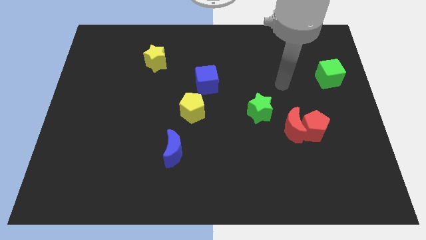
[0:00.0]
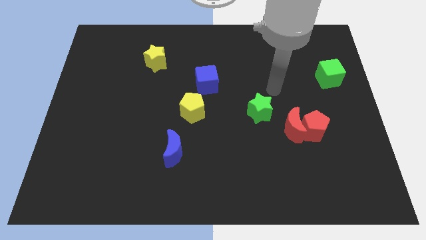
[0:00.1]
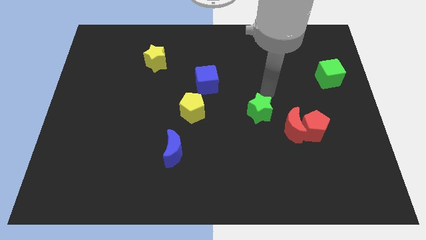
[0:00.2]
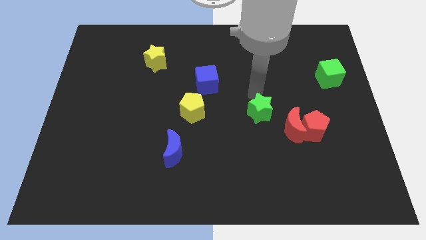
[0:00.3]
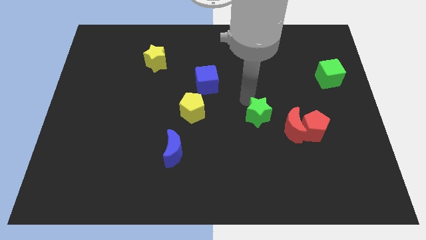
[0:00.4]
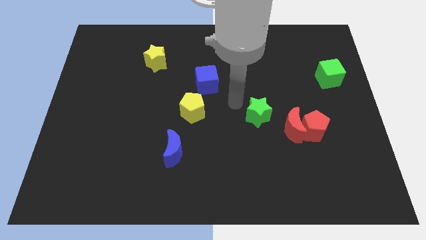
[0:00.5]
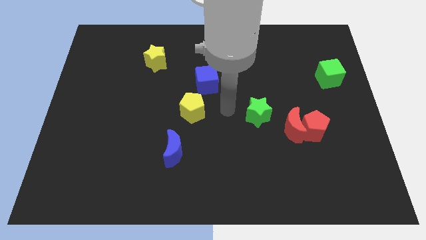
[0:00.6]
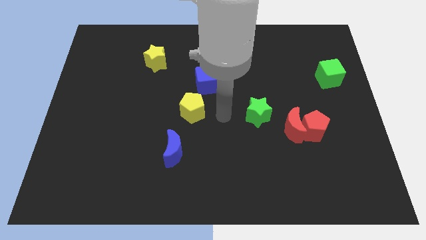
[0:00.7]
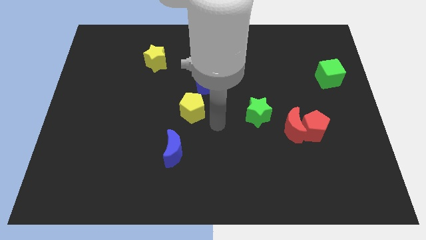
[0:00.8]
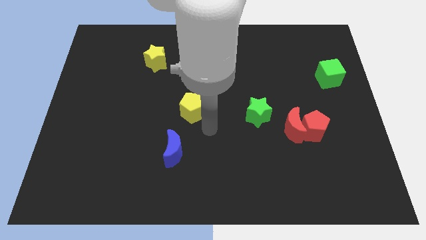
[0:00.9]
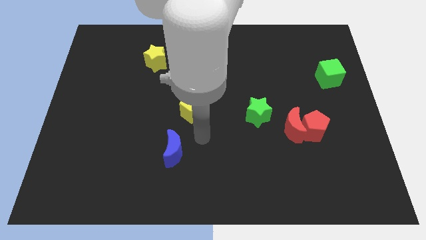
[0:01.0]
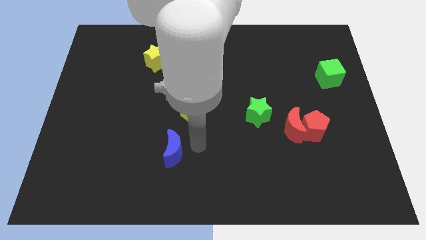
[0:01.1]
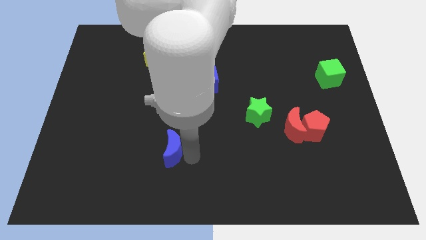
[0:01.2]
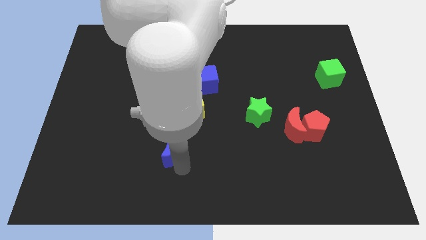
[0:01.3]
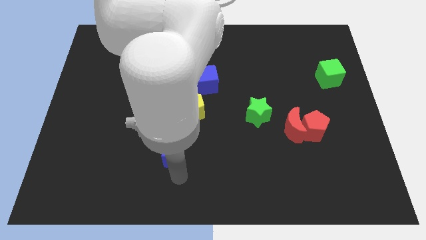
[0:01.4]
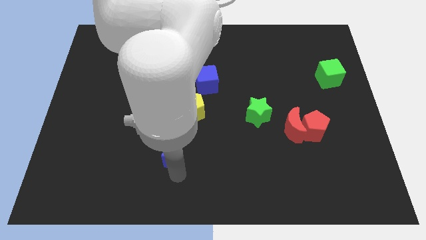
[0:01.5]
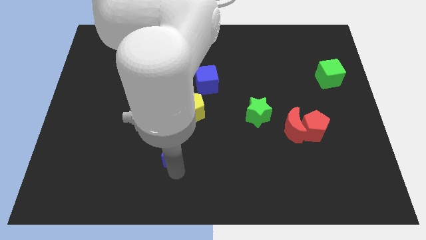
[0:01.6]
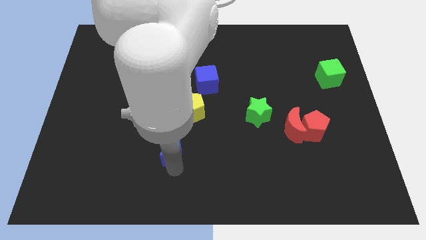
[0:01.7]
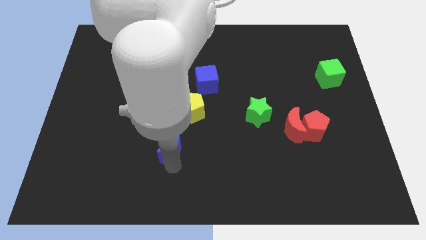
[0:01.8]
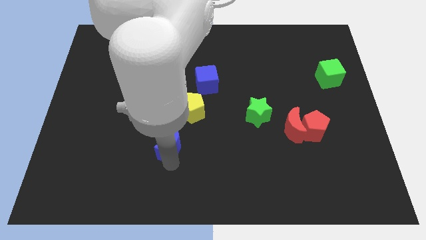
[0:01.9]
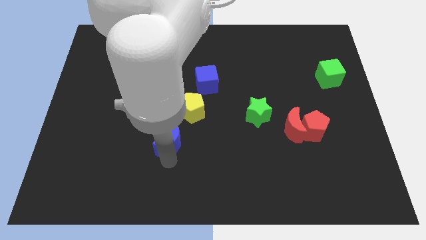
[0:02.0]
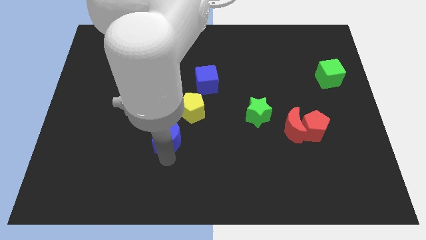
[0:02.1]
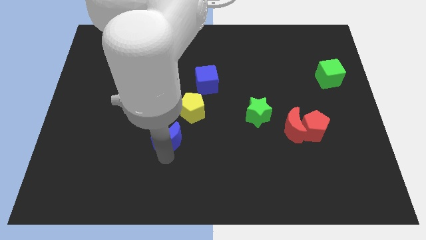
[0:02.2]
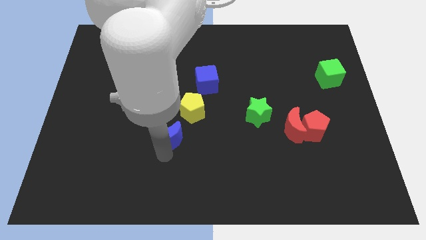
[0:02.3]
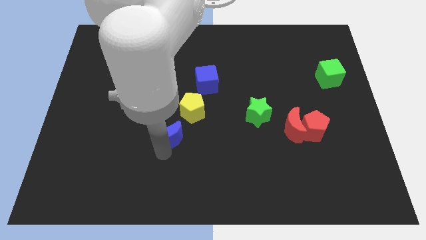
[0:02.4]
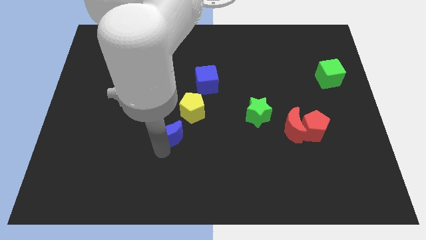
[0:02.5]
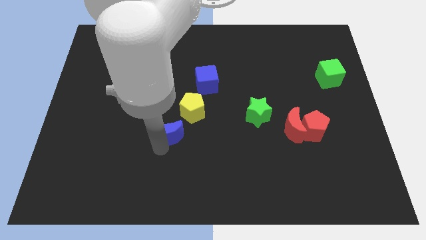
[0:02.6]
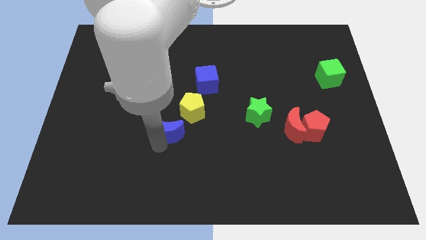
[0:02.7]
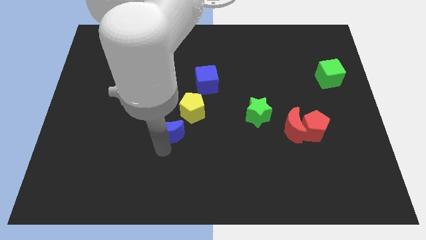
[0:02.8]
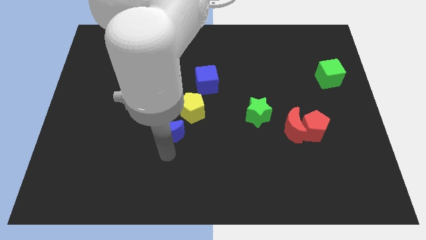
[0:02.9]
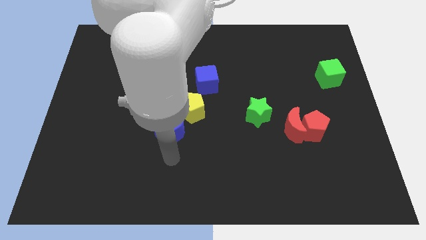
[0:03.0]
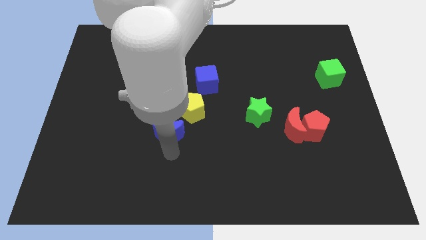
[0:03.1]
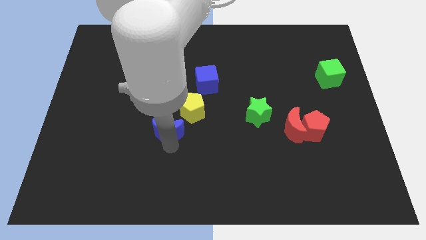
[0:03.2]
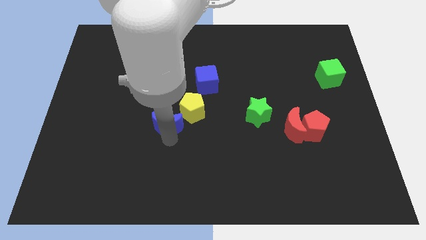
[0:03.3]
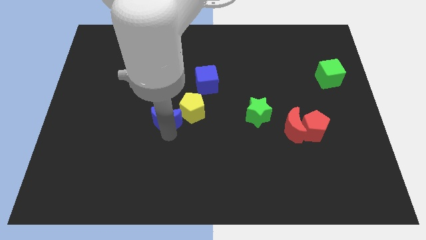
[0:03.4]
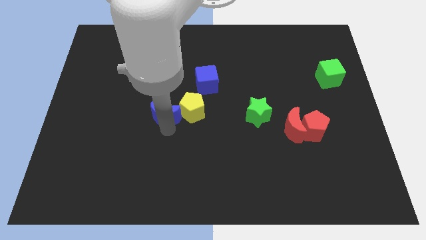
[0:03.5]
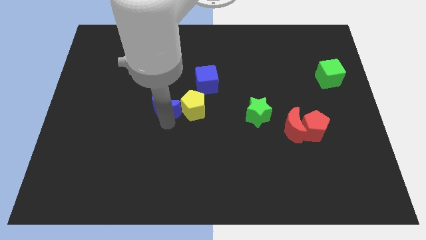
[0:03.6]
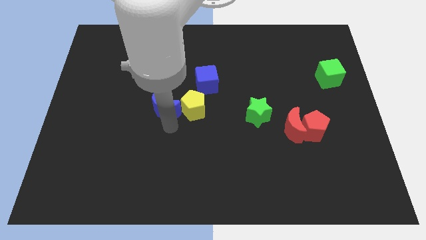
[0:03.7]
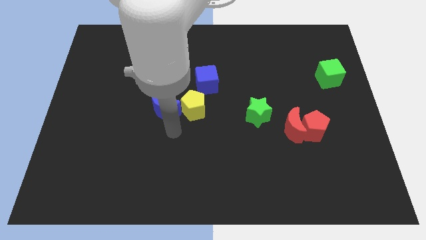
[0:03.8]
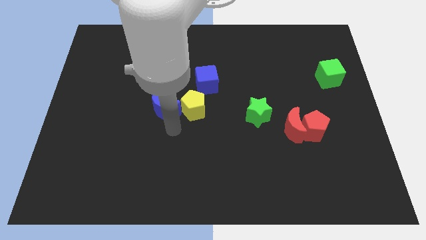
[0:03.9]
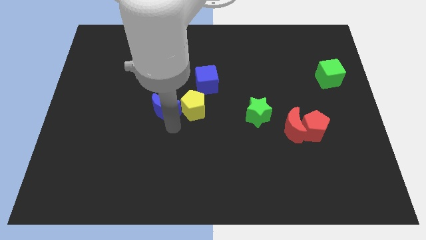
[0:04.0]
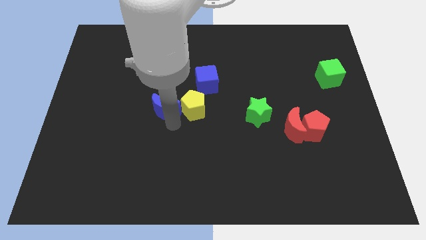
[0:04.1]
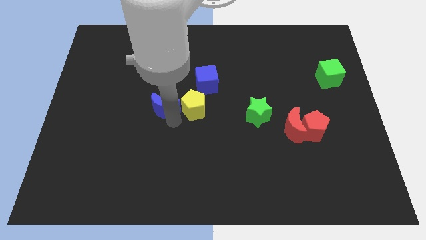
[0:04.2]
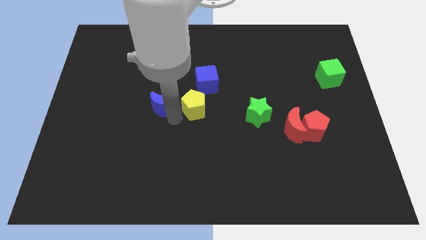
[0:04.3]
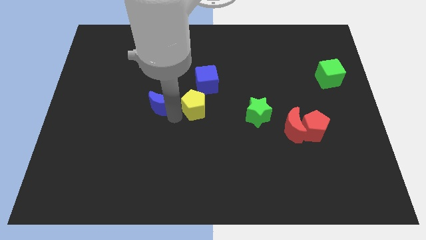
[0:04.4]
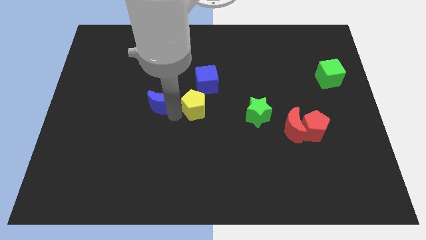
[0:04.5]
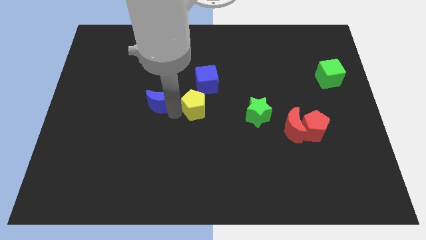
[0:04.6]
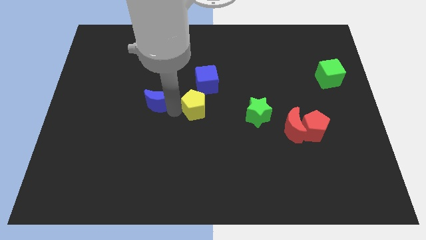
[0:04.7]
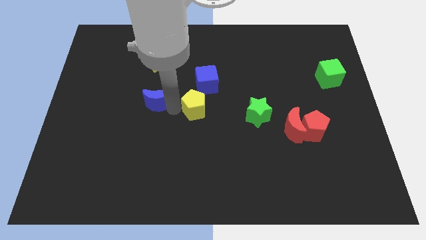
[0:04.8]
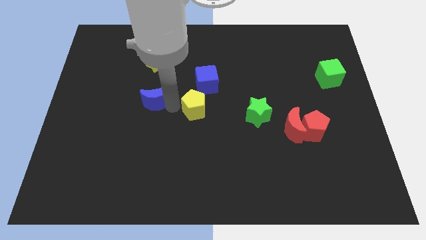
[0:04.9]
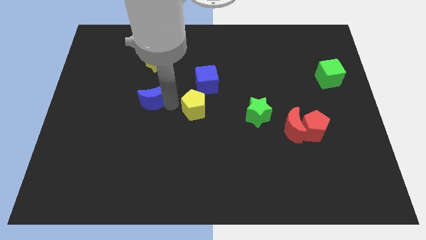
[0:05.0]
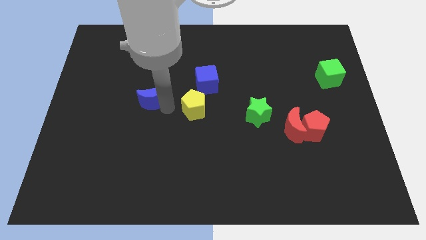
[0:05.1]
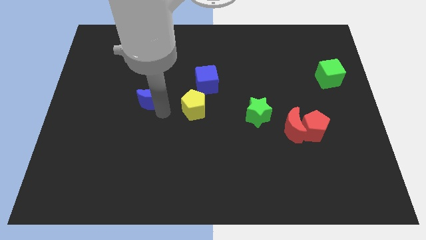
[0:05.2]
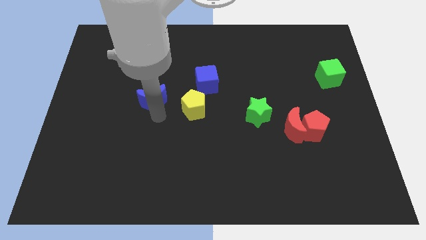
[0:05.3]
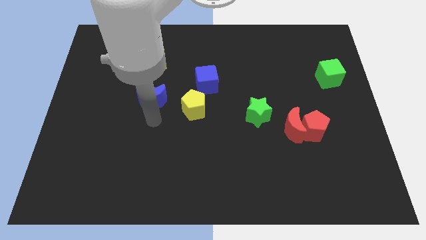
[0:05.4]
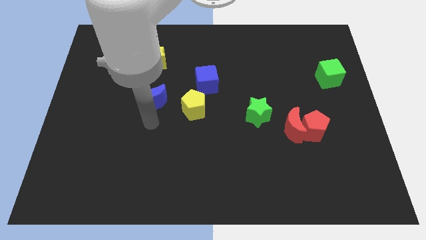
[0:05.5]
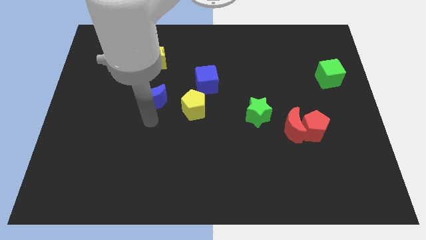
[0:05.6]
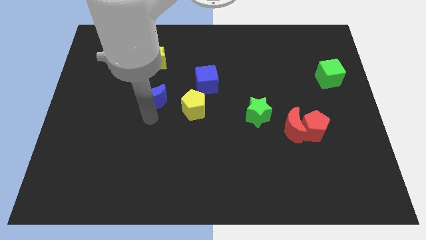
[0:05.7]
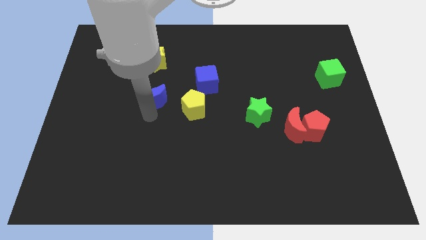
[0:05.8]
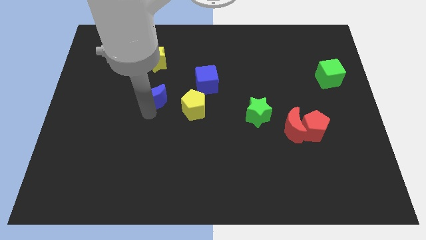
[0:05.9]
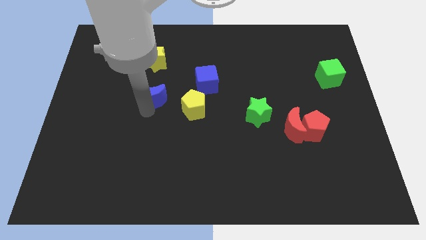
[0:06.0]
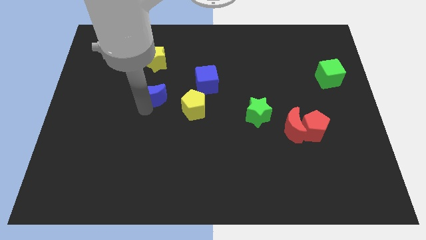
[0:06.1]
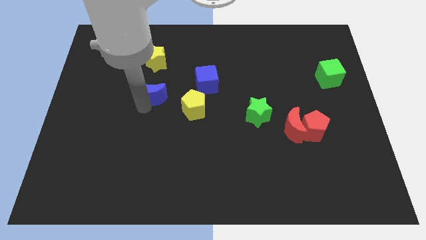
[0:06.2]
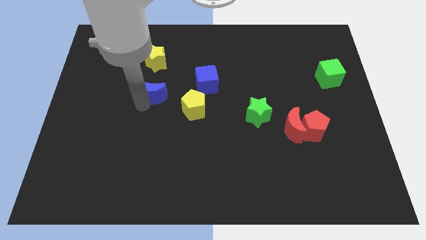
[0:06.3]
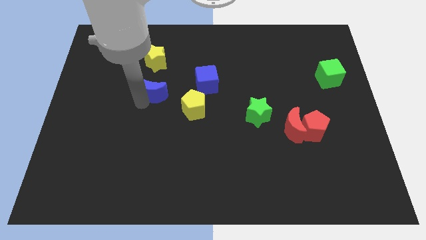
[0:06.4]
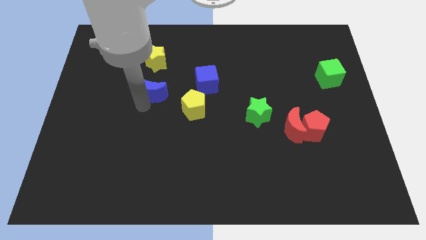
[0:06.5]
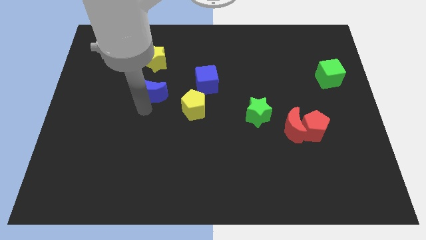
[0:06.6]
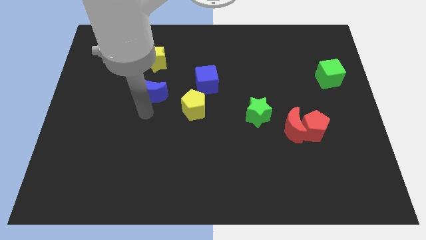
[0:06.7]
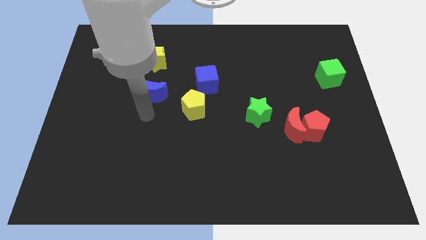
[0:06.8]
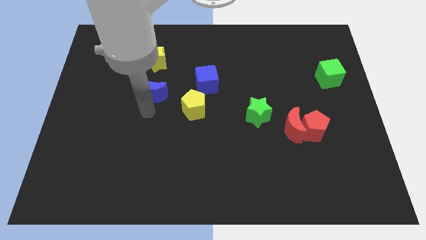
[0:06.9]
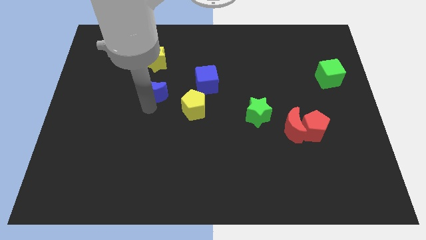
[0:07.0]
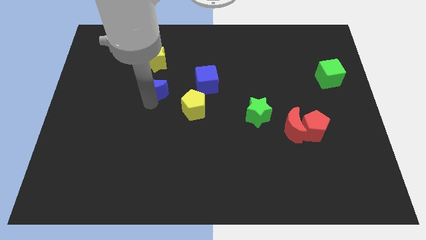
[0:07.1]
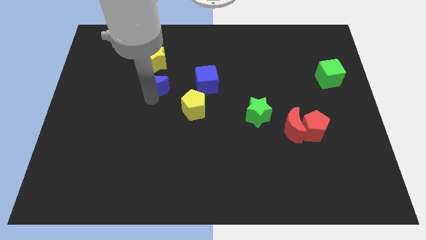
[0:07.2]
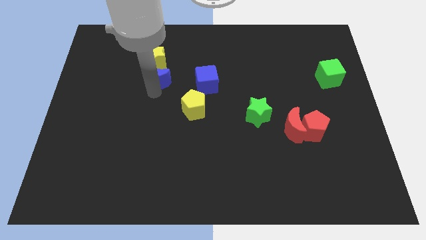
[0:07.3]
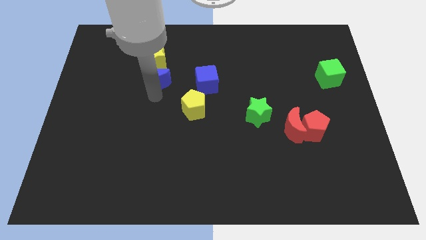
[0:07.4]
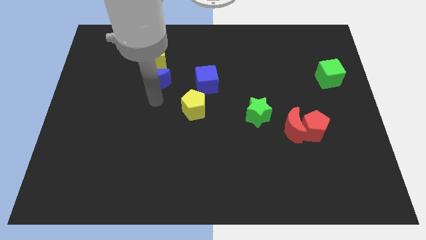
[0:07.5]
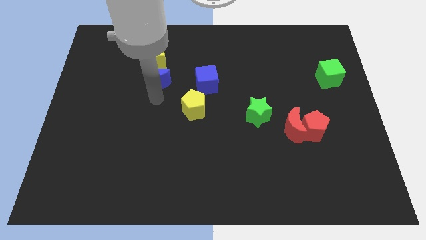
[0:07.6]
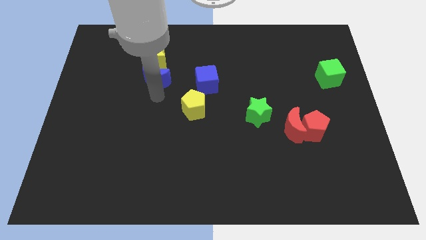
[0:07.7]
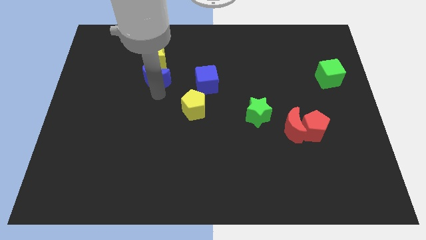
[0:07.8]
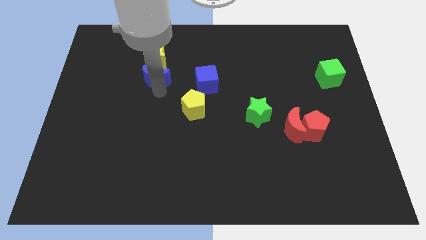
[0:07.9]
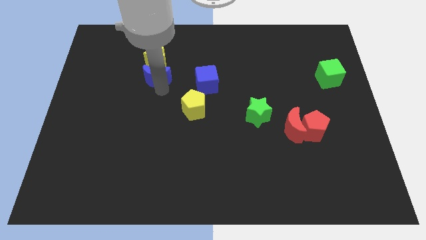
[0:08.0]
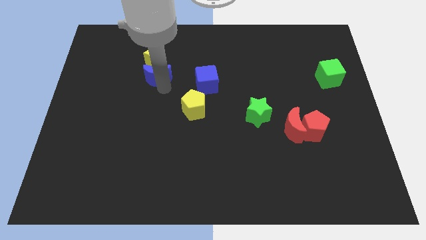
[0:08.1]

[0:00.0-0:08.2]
move the blue moon towards the yellow star
